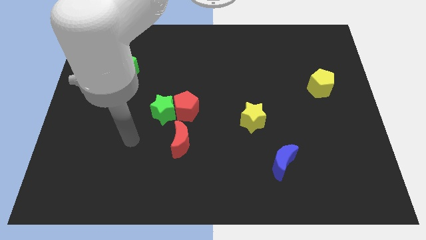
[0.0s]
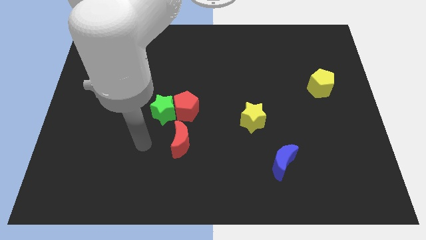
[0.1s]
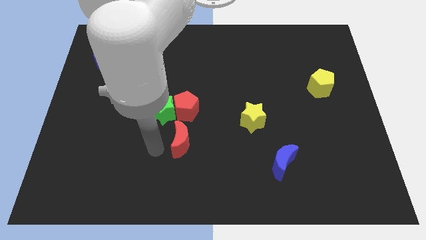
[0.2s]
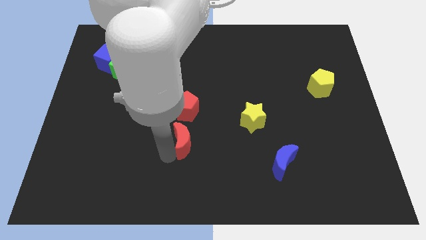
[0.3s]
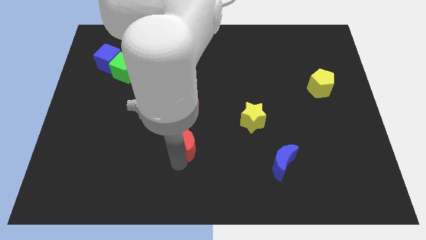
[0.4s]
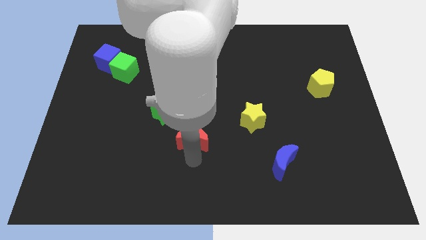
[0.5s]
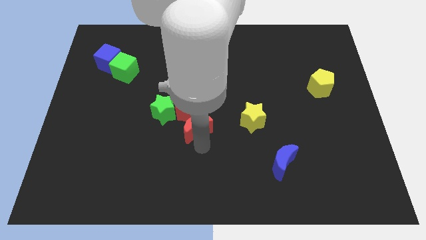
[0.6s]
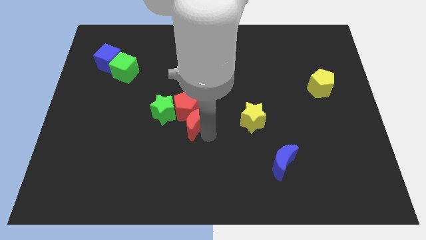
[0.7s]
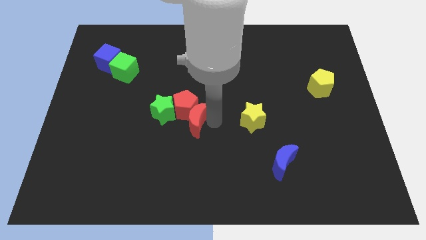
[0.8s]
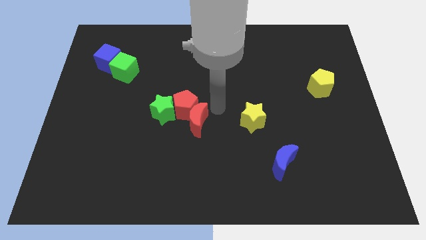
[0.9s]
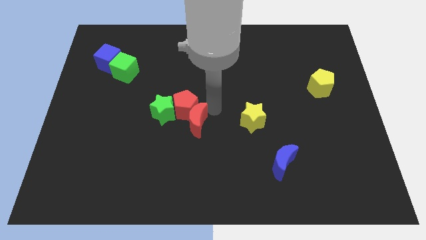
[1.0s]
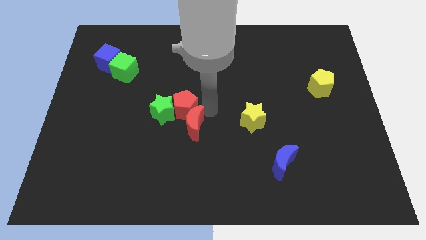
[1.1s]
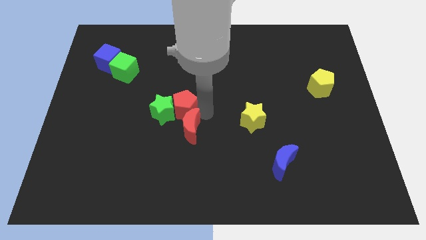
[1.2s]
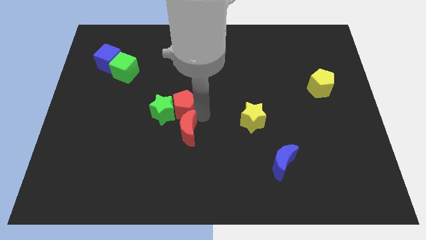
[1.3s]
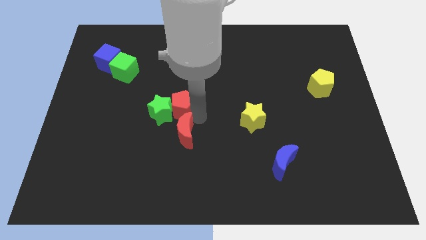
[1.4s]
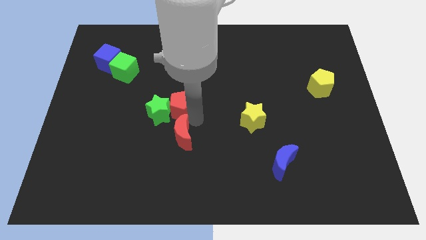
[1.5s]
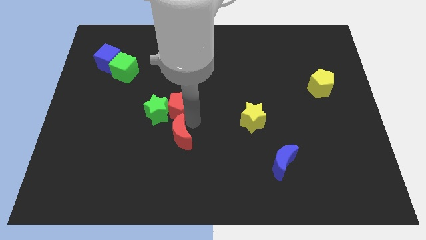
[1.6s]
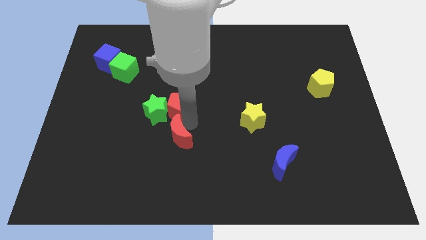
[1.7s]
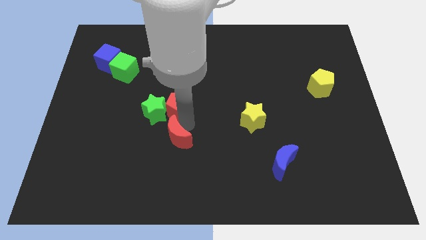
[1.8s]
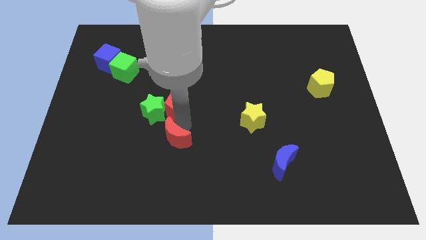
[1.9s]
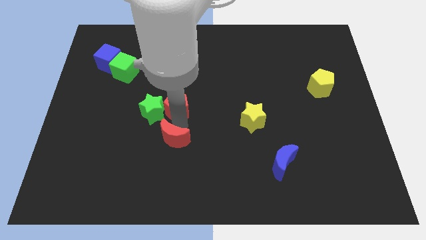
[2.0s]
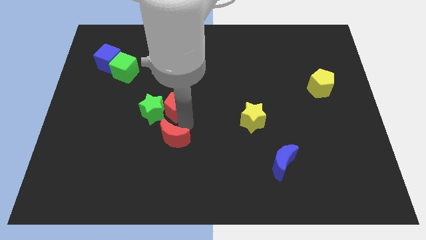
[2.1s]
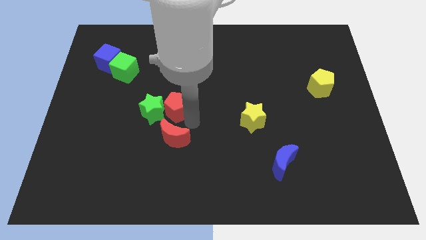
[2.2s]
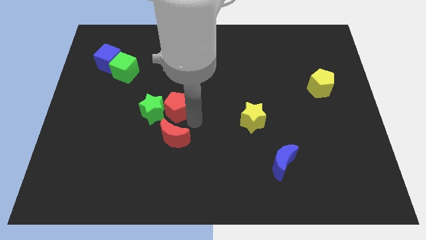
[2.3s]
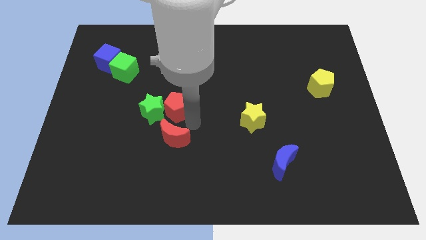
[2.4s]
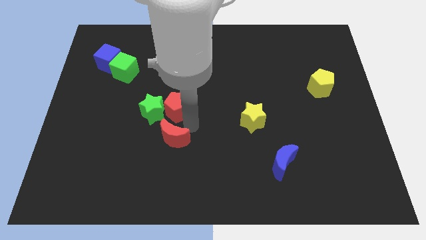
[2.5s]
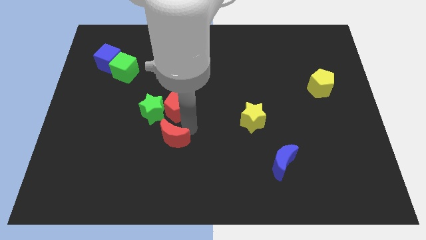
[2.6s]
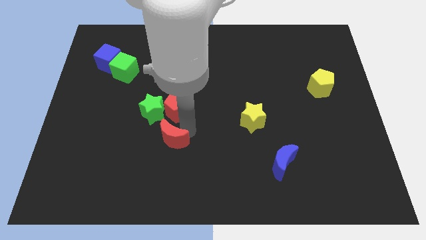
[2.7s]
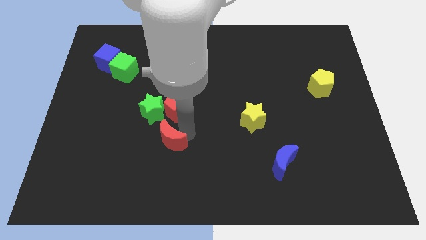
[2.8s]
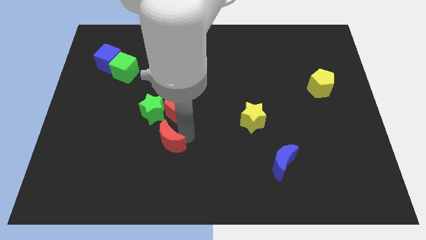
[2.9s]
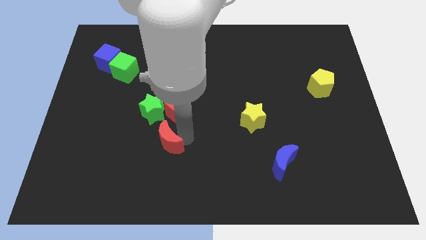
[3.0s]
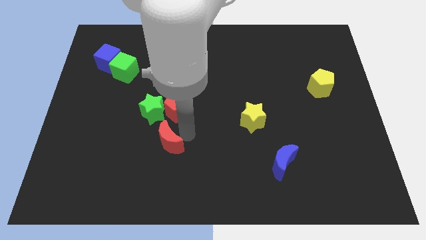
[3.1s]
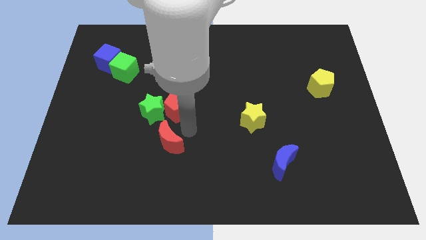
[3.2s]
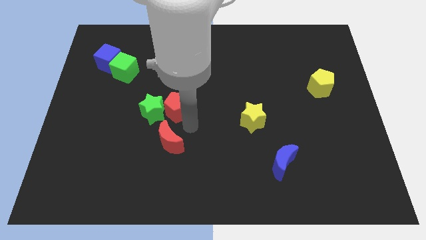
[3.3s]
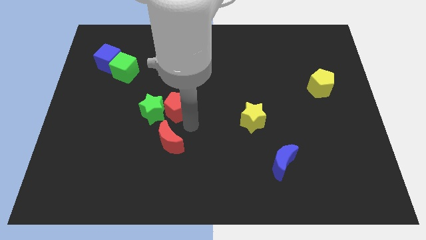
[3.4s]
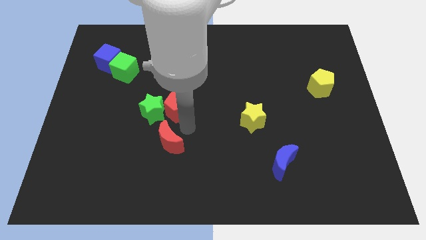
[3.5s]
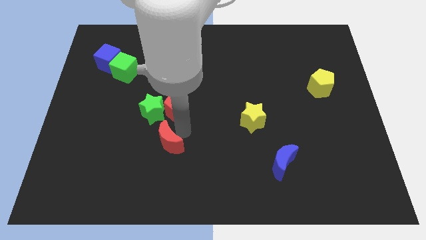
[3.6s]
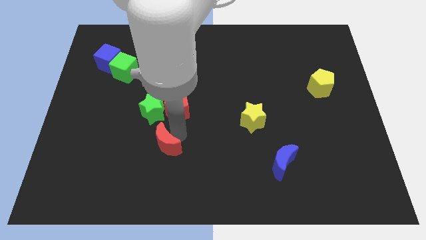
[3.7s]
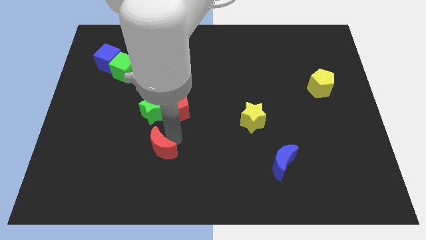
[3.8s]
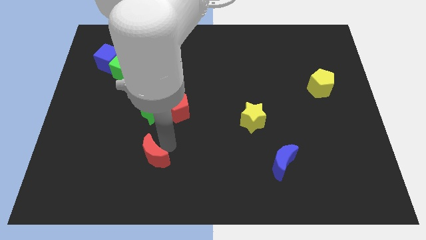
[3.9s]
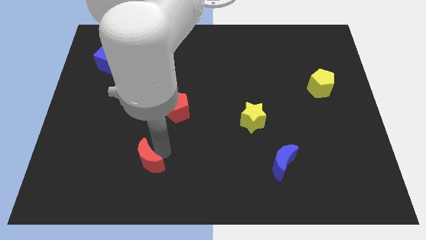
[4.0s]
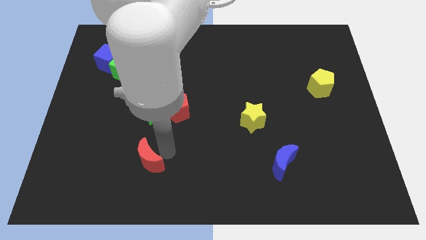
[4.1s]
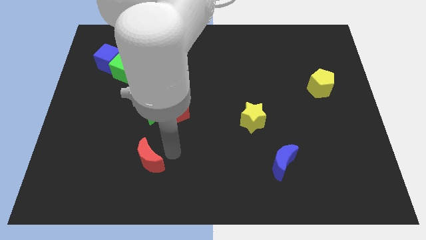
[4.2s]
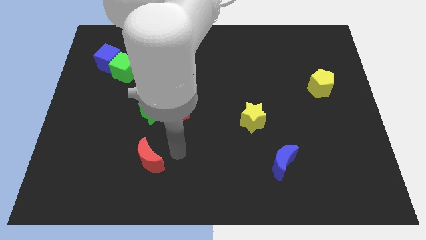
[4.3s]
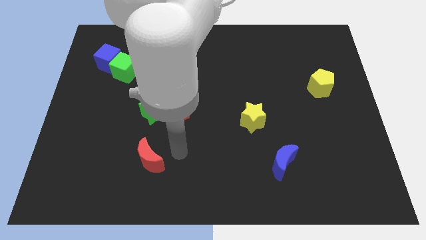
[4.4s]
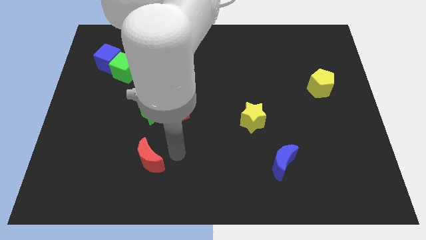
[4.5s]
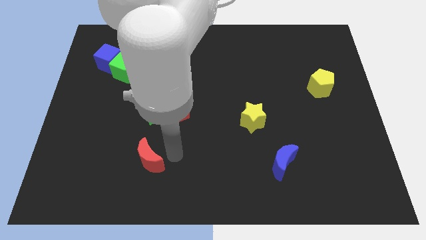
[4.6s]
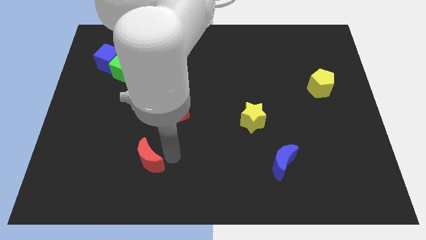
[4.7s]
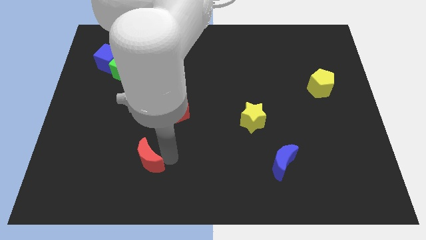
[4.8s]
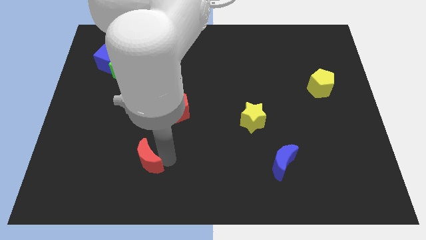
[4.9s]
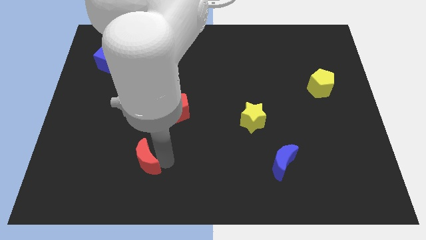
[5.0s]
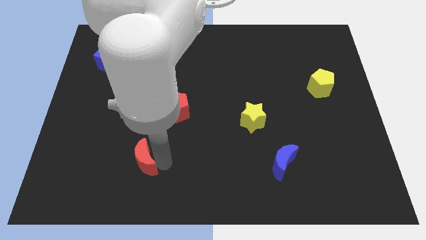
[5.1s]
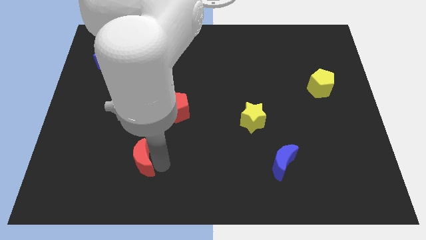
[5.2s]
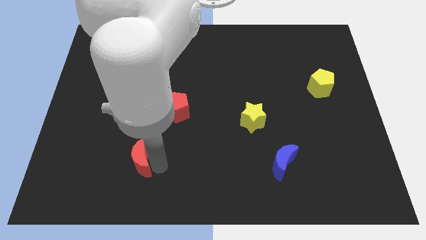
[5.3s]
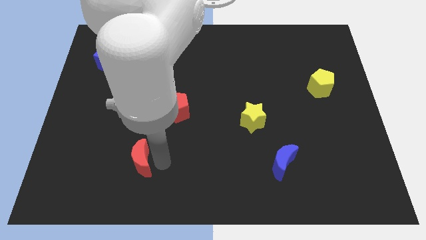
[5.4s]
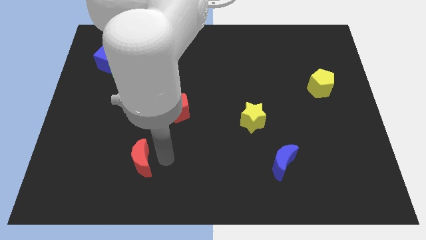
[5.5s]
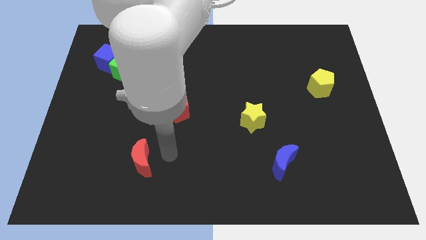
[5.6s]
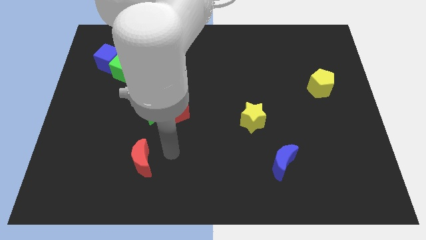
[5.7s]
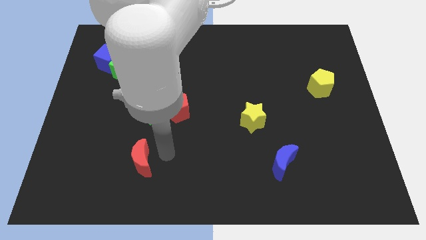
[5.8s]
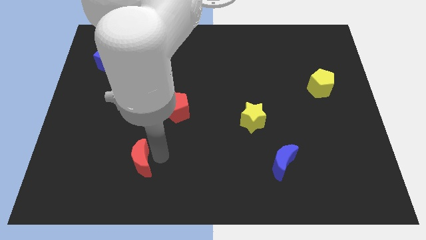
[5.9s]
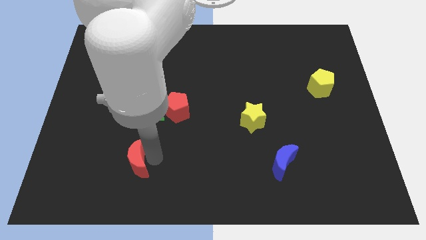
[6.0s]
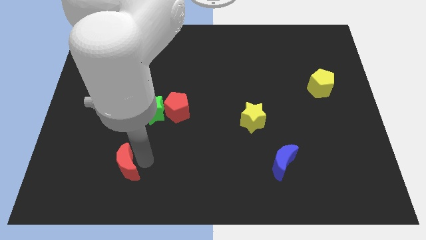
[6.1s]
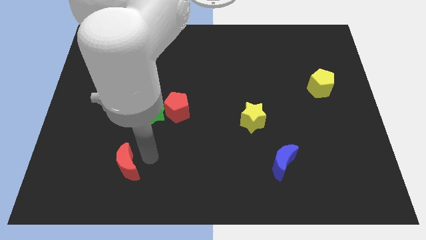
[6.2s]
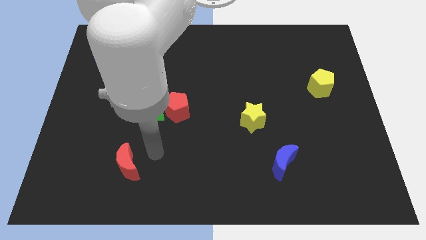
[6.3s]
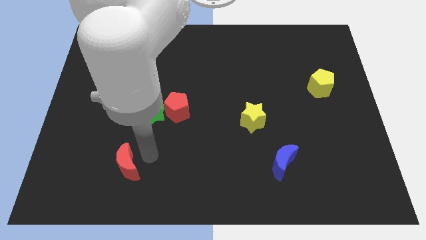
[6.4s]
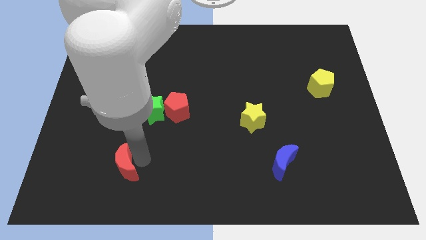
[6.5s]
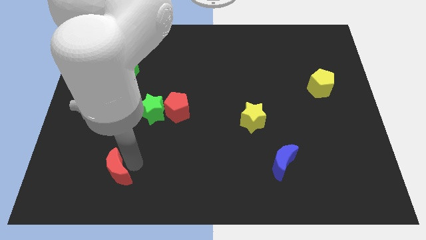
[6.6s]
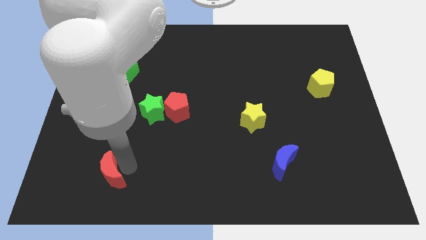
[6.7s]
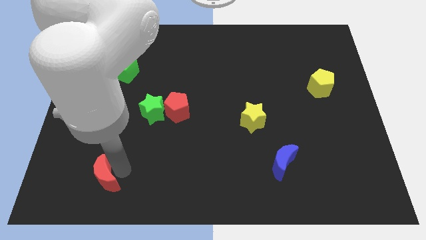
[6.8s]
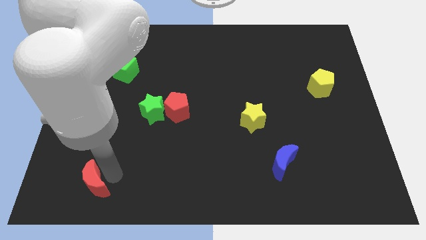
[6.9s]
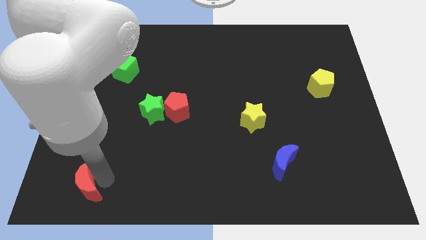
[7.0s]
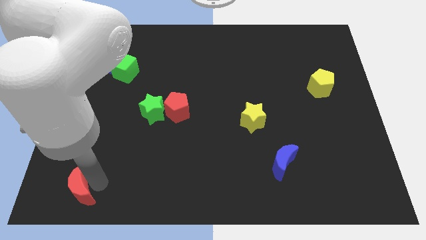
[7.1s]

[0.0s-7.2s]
move the red moon to the bottom left of the board
